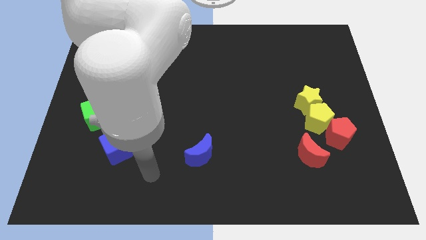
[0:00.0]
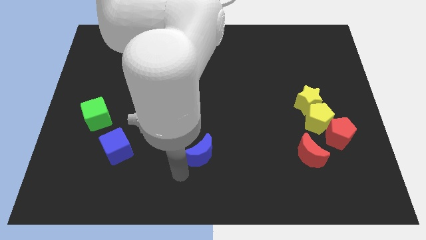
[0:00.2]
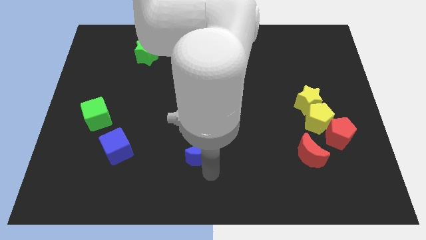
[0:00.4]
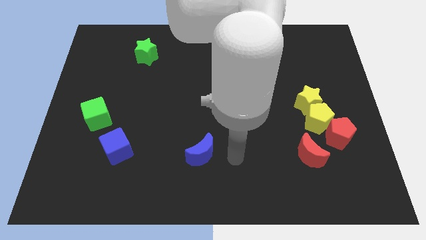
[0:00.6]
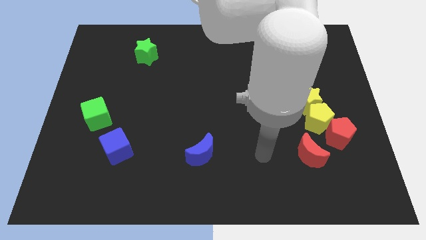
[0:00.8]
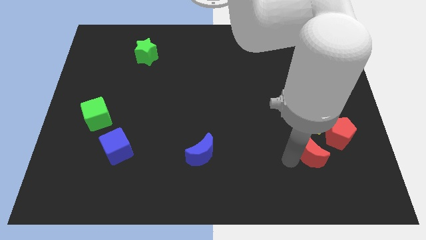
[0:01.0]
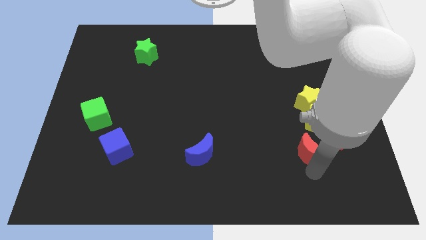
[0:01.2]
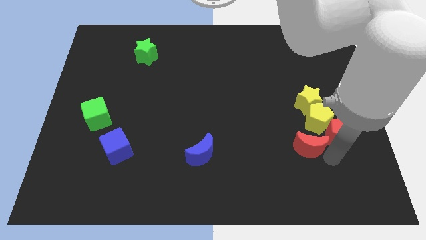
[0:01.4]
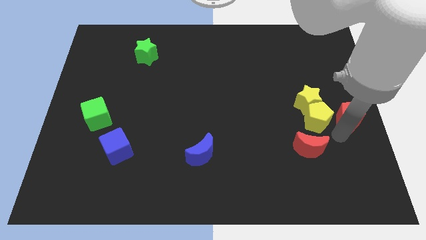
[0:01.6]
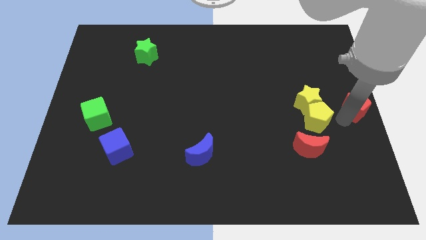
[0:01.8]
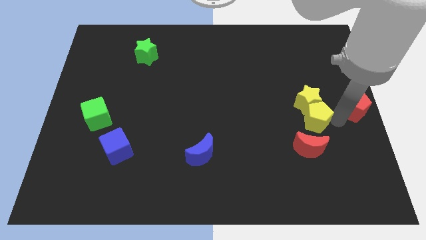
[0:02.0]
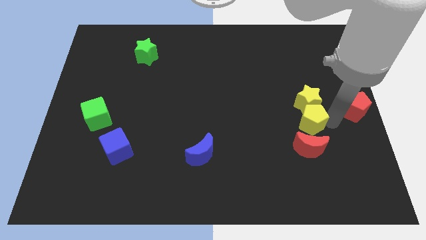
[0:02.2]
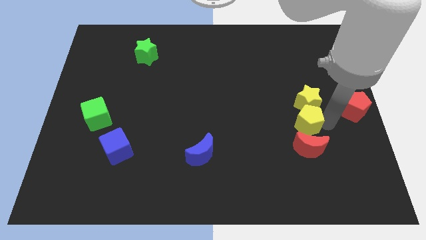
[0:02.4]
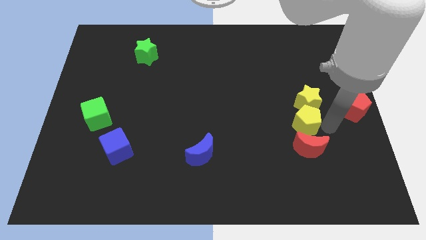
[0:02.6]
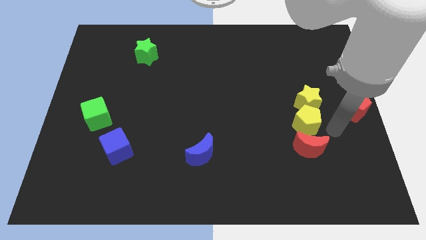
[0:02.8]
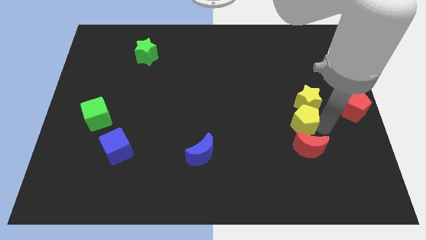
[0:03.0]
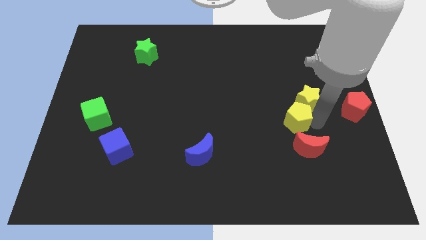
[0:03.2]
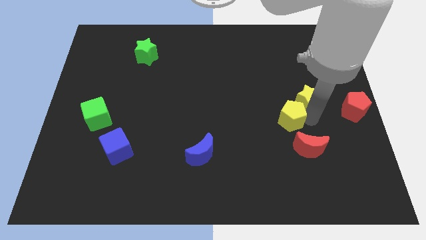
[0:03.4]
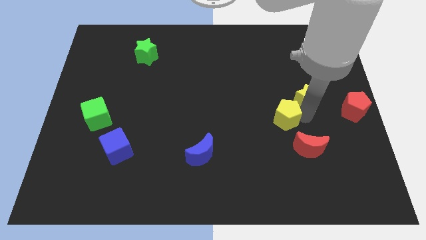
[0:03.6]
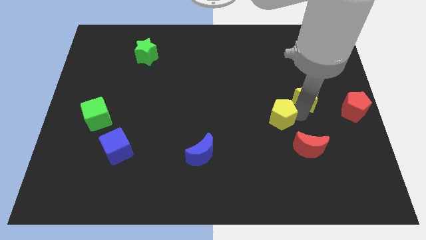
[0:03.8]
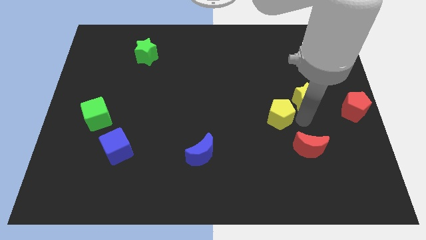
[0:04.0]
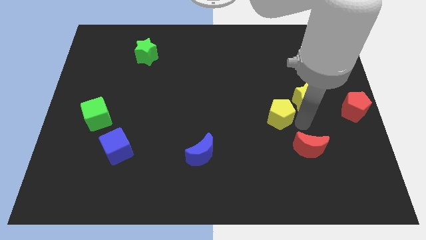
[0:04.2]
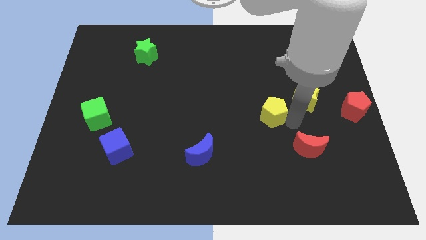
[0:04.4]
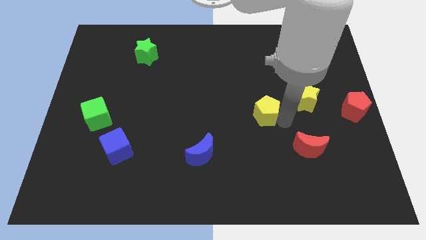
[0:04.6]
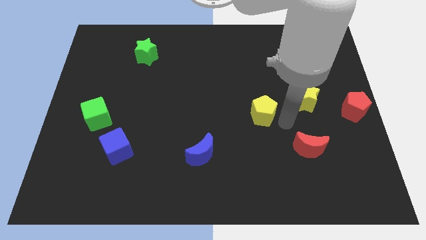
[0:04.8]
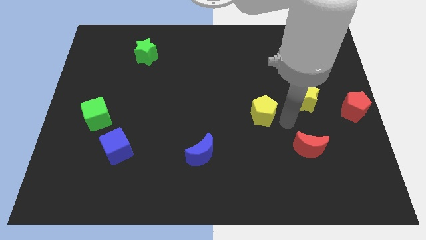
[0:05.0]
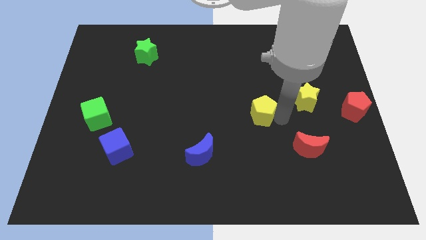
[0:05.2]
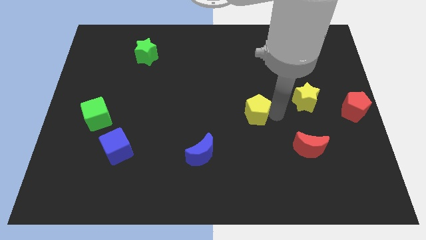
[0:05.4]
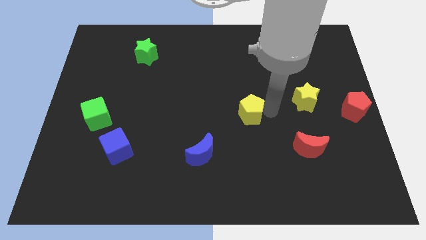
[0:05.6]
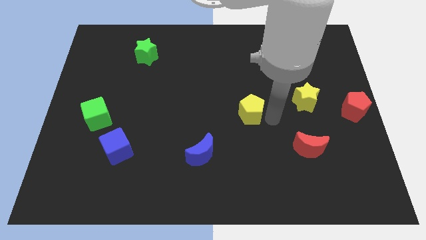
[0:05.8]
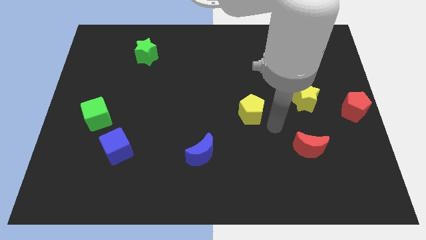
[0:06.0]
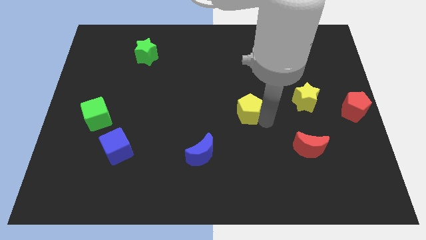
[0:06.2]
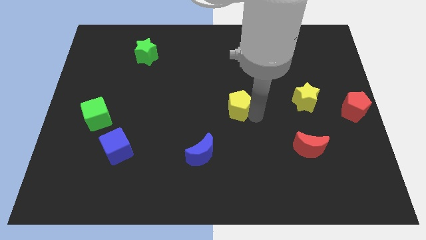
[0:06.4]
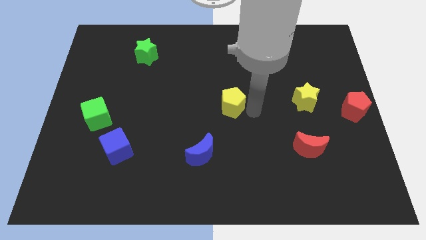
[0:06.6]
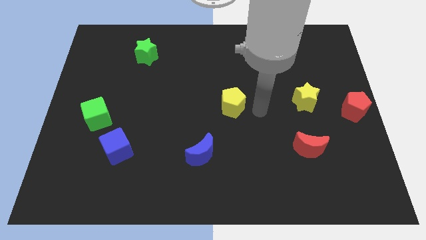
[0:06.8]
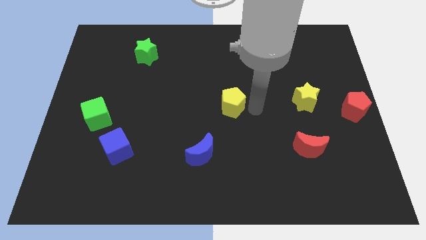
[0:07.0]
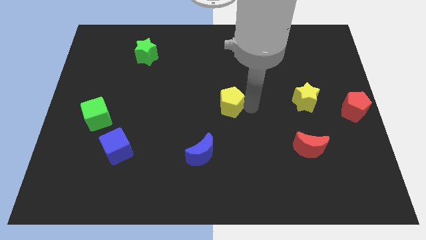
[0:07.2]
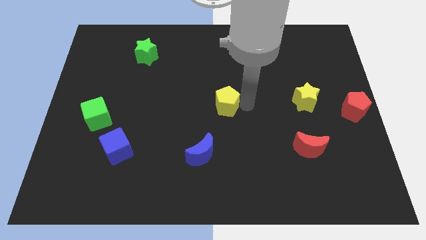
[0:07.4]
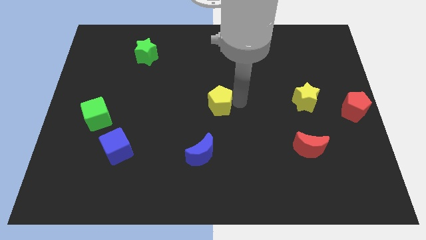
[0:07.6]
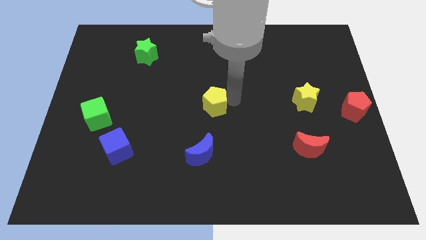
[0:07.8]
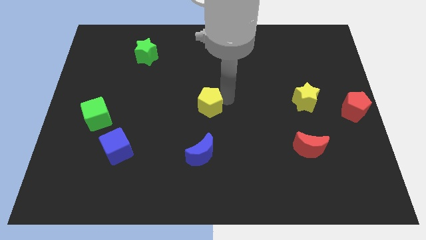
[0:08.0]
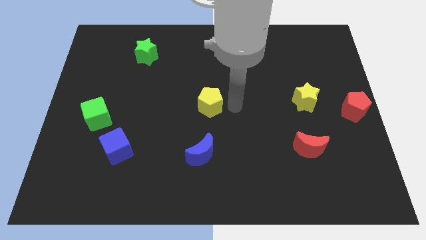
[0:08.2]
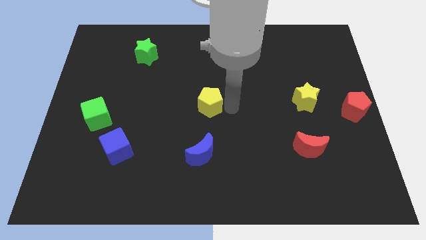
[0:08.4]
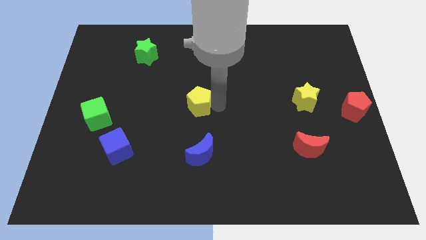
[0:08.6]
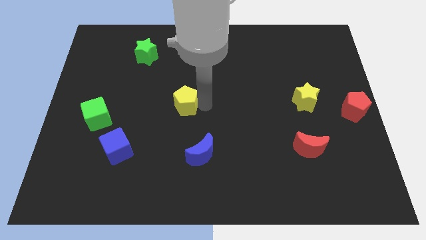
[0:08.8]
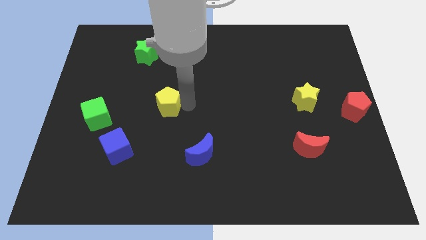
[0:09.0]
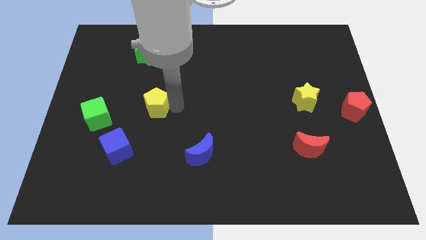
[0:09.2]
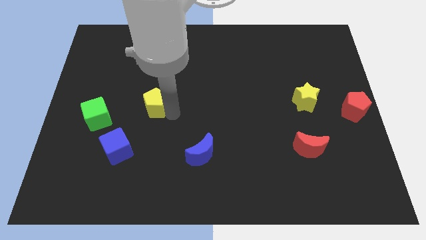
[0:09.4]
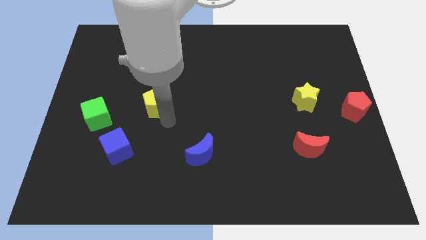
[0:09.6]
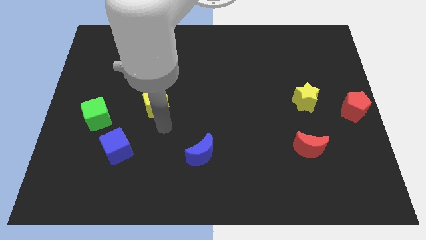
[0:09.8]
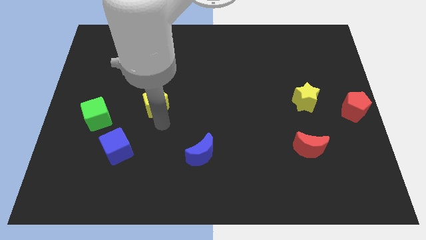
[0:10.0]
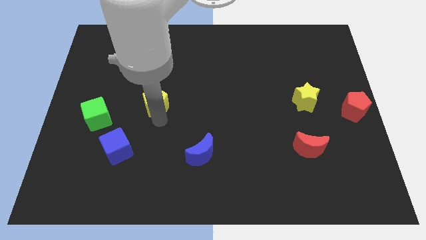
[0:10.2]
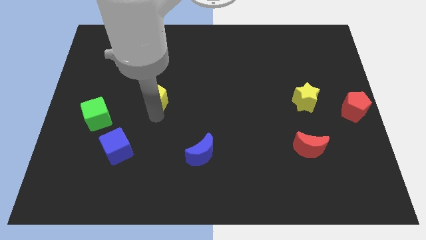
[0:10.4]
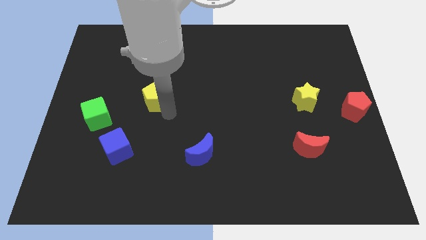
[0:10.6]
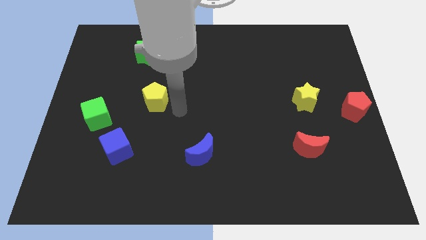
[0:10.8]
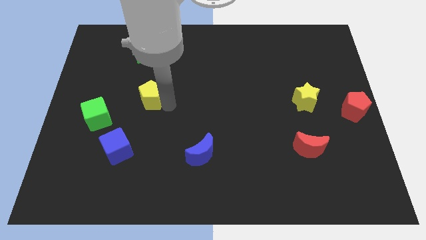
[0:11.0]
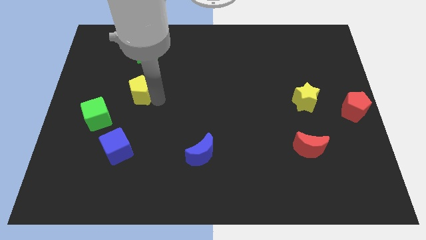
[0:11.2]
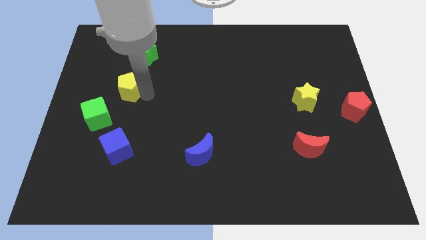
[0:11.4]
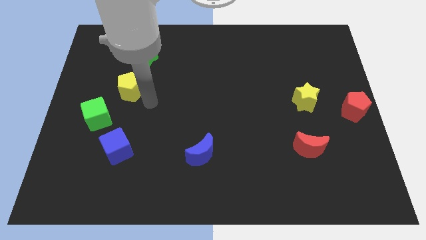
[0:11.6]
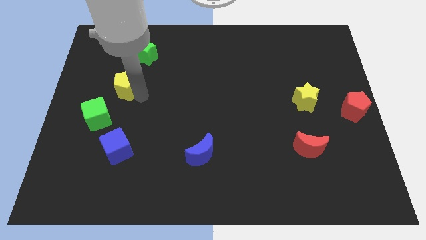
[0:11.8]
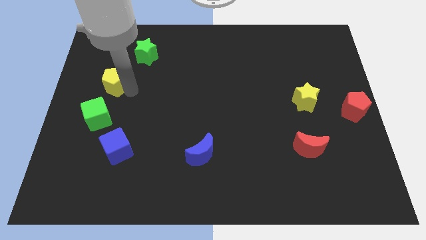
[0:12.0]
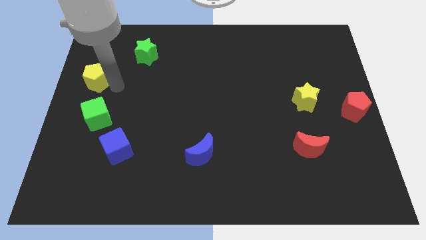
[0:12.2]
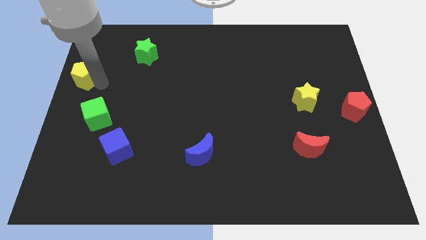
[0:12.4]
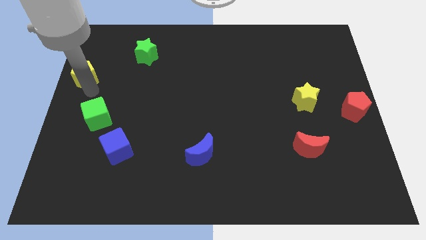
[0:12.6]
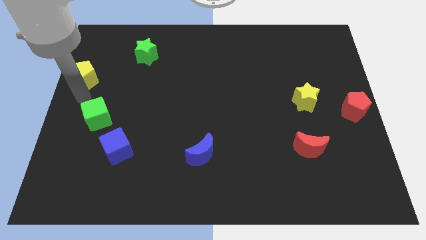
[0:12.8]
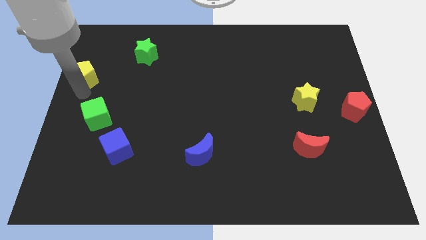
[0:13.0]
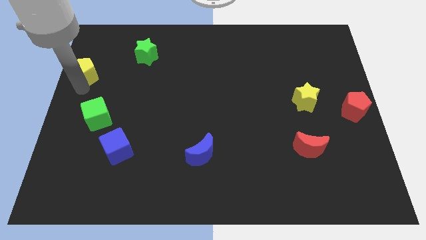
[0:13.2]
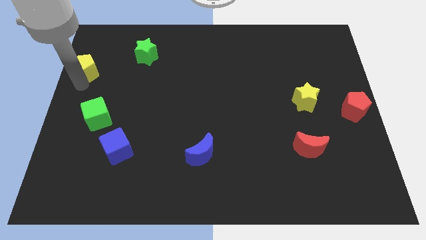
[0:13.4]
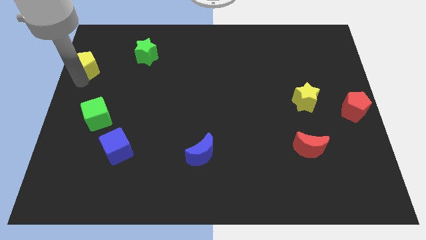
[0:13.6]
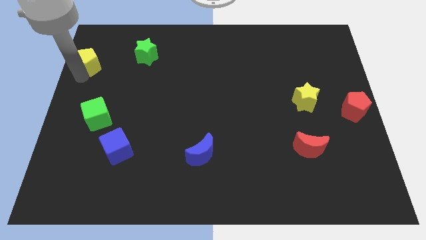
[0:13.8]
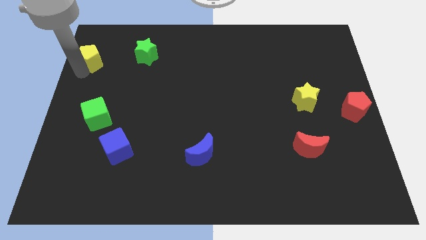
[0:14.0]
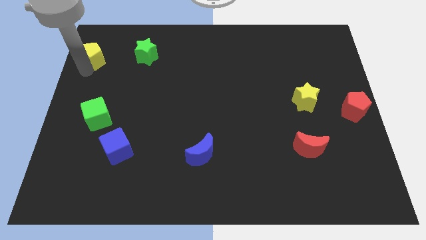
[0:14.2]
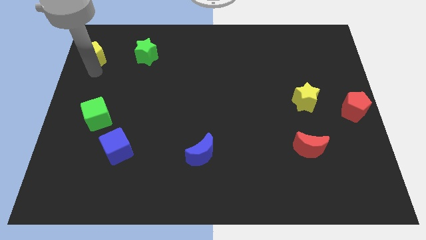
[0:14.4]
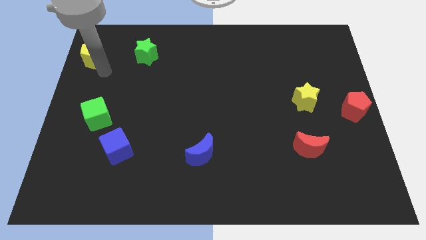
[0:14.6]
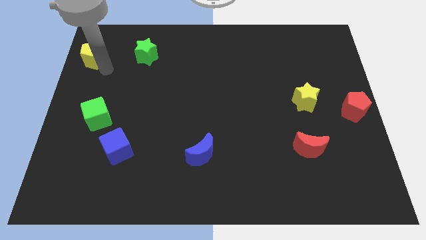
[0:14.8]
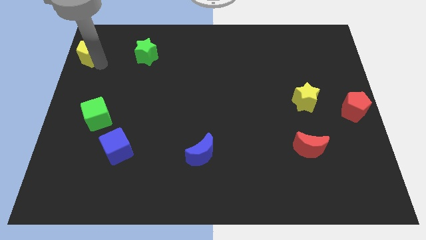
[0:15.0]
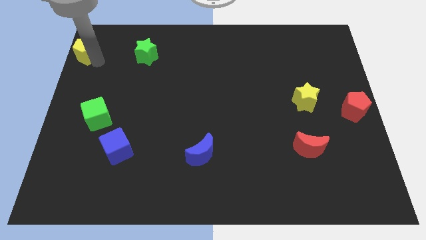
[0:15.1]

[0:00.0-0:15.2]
move the yellow pentagon to the top left corner
